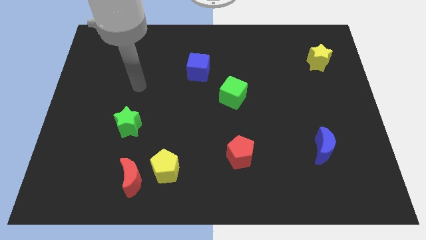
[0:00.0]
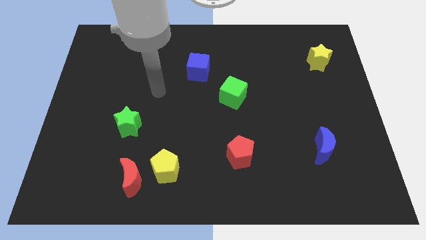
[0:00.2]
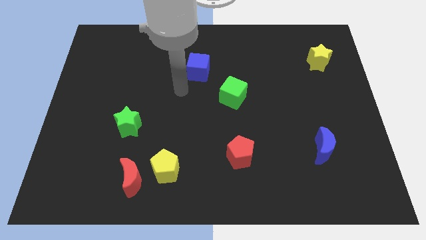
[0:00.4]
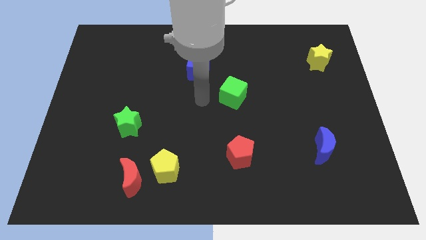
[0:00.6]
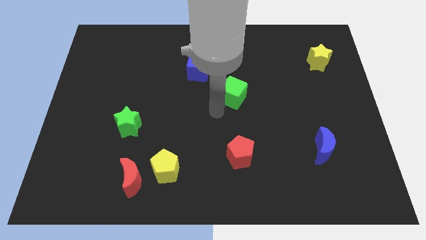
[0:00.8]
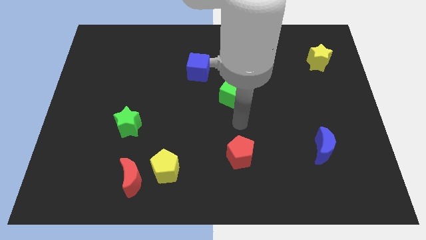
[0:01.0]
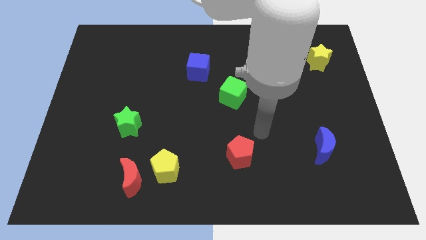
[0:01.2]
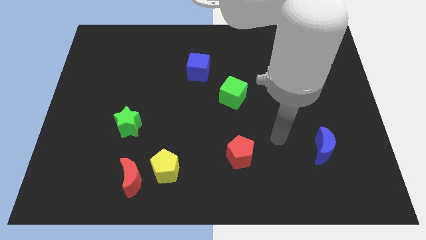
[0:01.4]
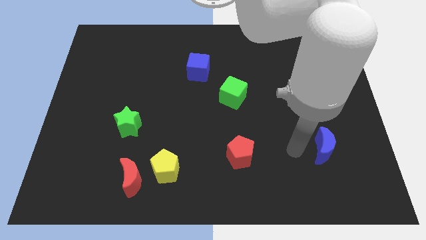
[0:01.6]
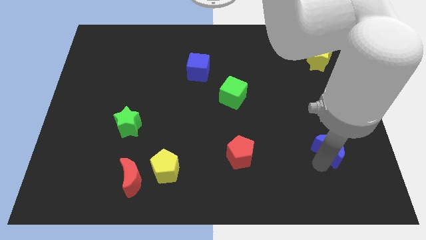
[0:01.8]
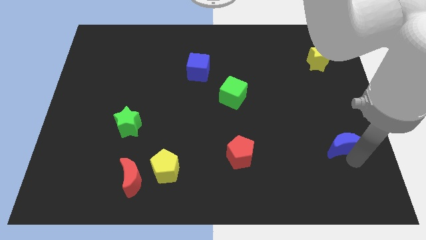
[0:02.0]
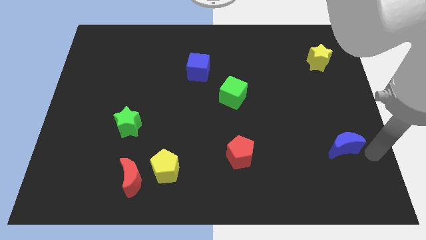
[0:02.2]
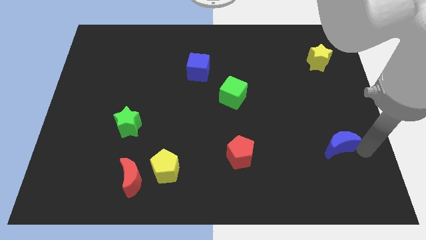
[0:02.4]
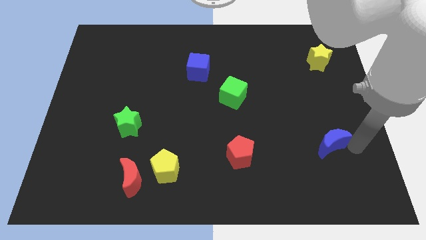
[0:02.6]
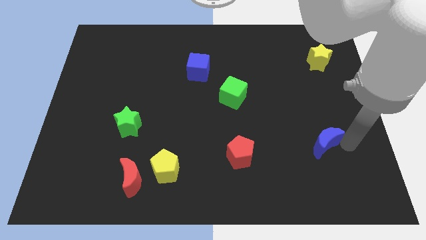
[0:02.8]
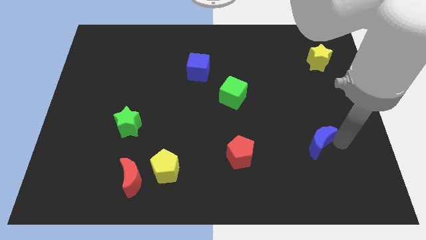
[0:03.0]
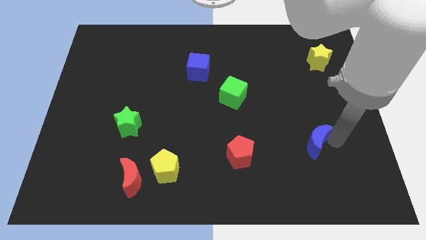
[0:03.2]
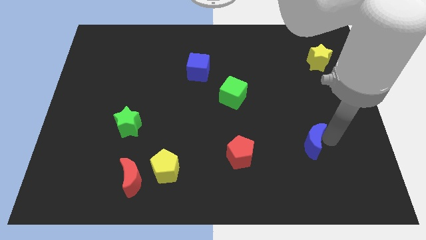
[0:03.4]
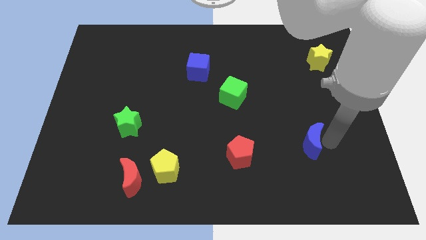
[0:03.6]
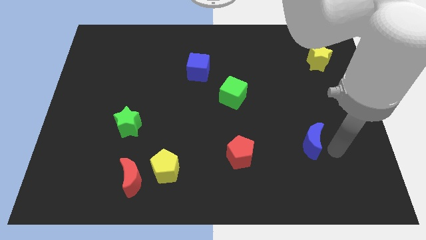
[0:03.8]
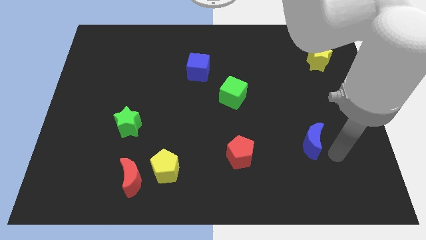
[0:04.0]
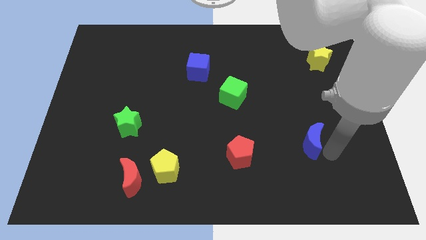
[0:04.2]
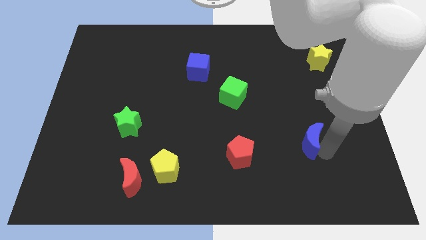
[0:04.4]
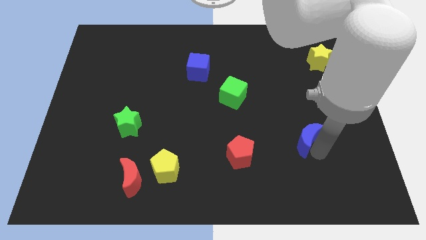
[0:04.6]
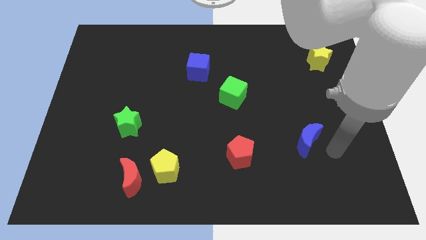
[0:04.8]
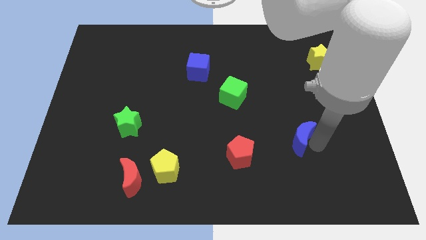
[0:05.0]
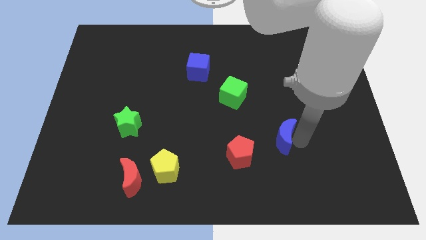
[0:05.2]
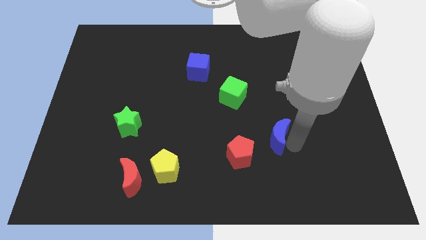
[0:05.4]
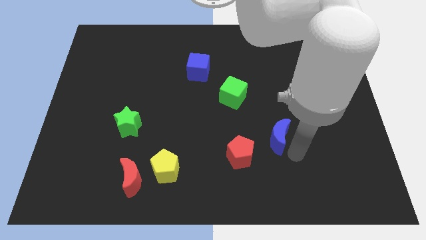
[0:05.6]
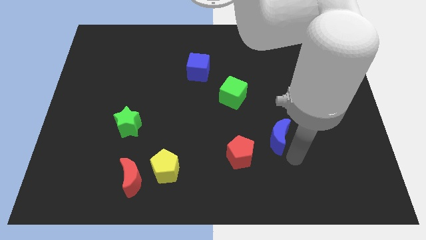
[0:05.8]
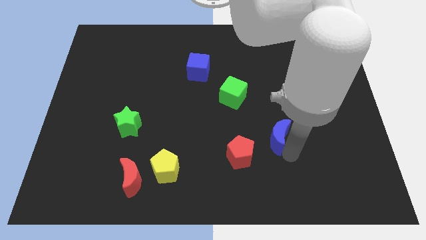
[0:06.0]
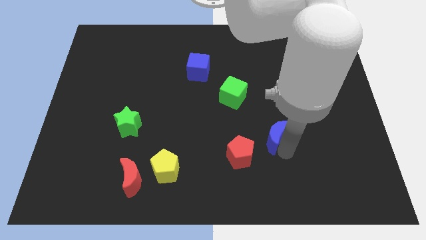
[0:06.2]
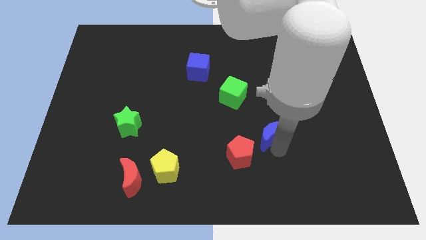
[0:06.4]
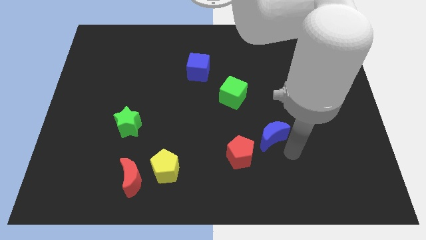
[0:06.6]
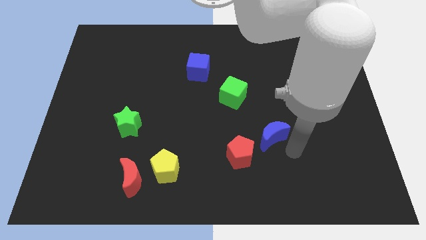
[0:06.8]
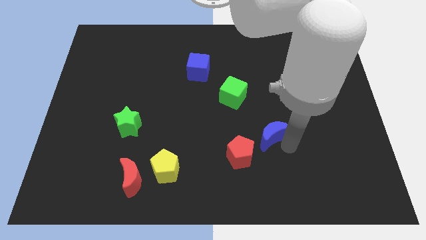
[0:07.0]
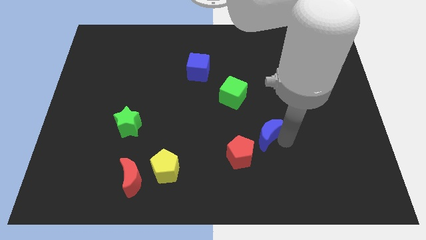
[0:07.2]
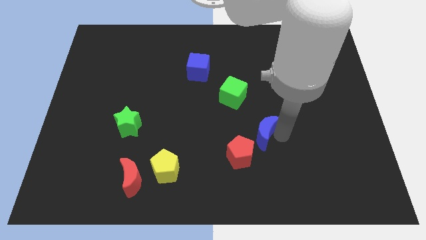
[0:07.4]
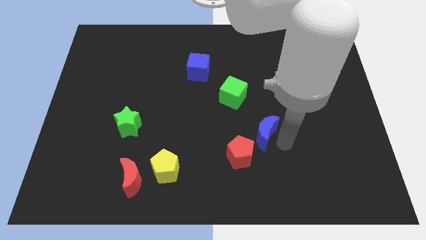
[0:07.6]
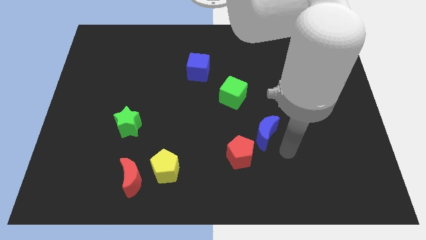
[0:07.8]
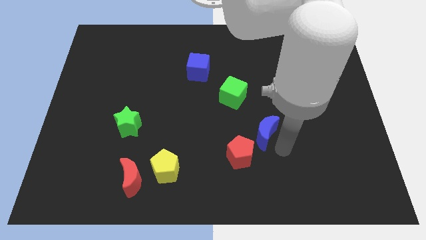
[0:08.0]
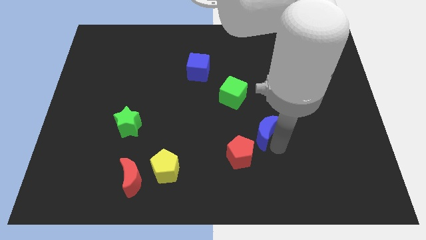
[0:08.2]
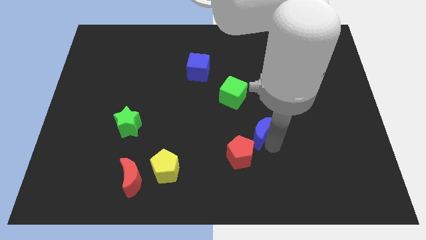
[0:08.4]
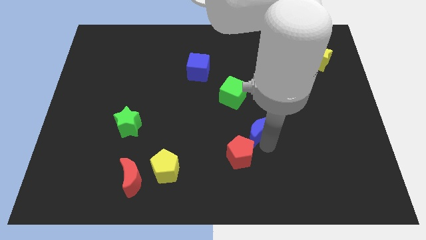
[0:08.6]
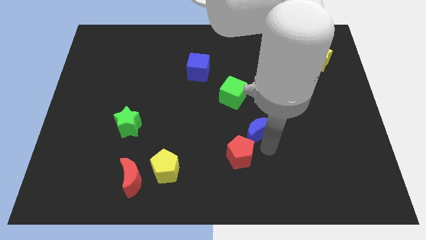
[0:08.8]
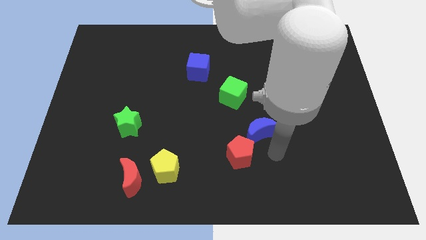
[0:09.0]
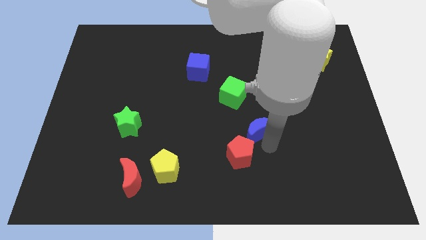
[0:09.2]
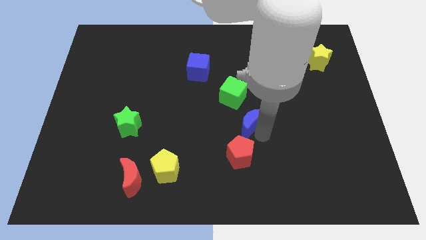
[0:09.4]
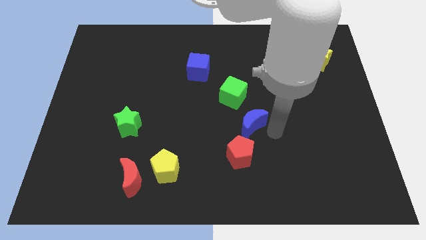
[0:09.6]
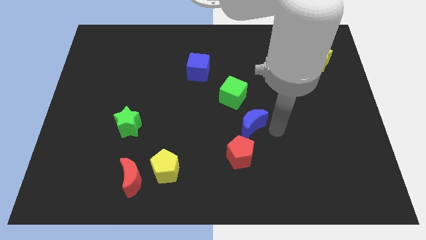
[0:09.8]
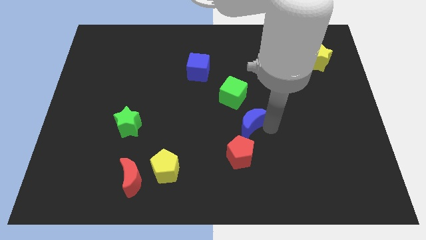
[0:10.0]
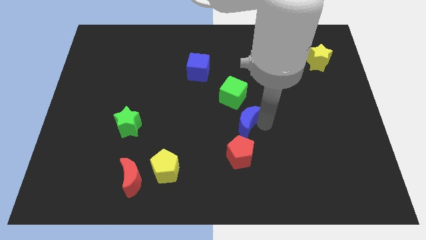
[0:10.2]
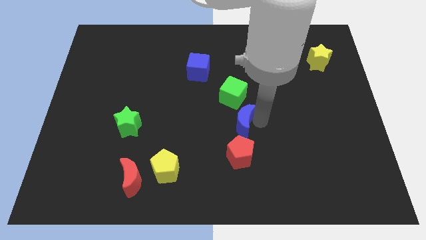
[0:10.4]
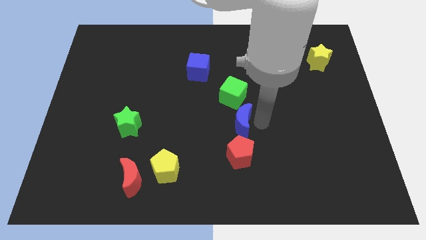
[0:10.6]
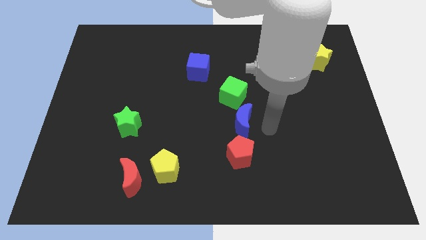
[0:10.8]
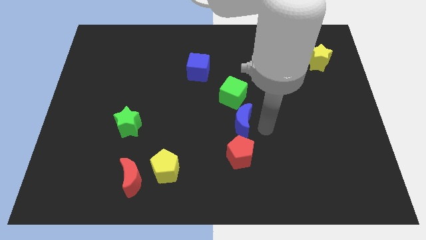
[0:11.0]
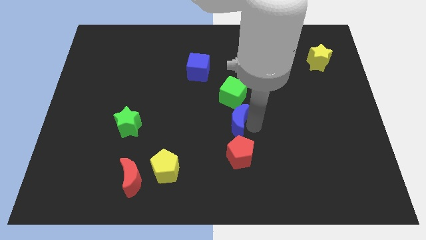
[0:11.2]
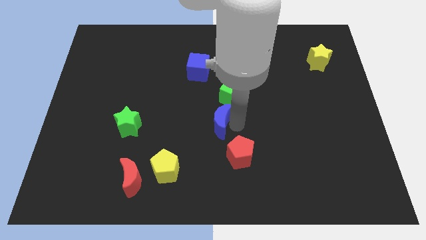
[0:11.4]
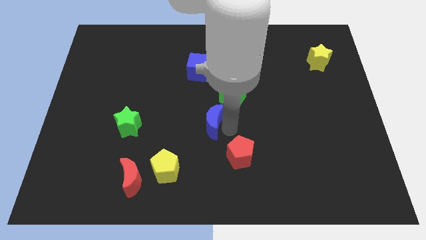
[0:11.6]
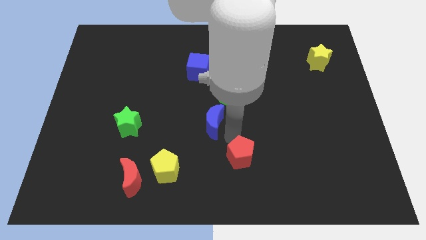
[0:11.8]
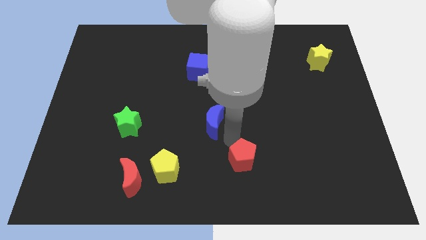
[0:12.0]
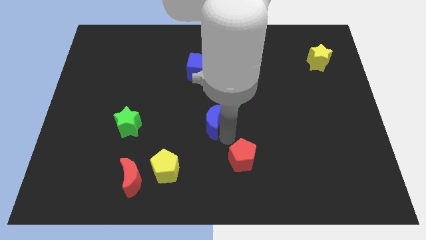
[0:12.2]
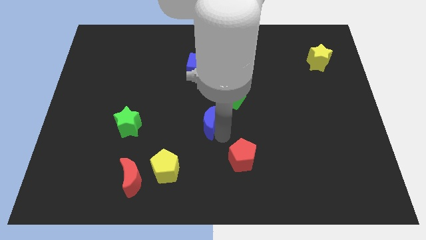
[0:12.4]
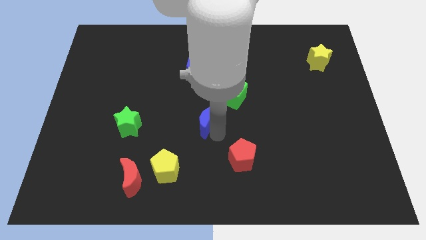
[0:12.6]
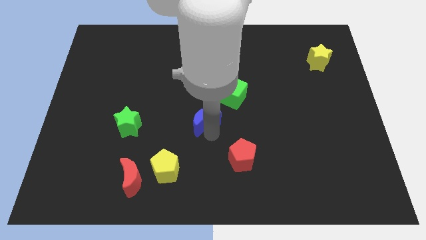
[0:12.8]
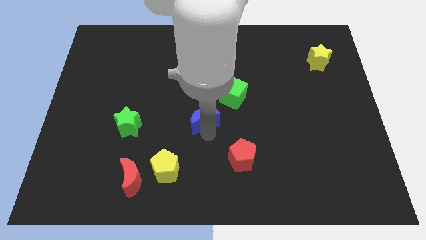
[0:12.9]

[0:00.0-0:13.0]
push the blue moon below the blue cube

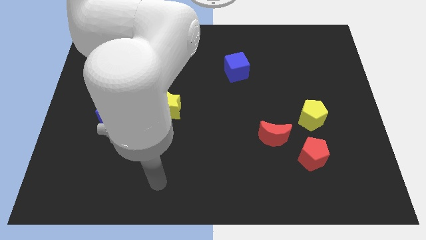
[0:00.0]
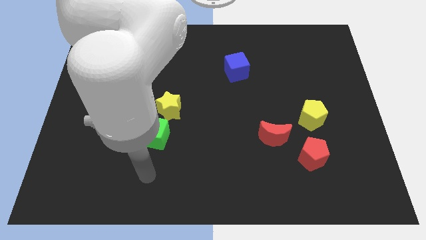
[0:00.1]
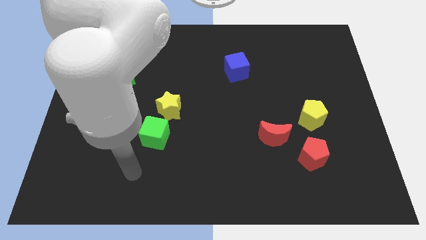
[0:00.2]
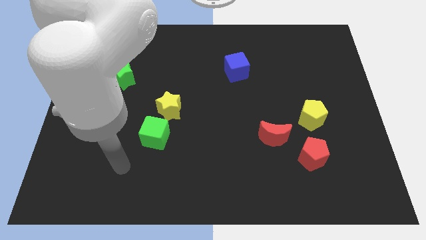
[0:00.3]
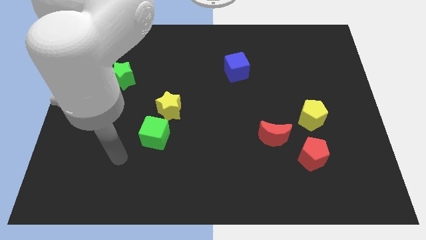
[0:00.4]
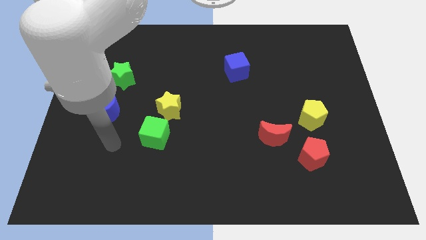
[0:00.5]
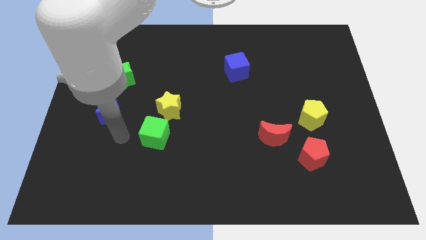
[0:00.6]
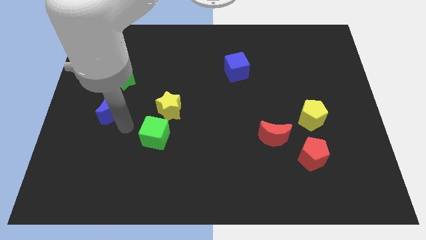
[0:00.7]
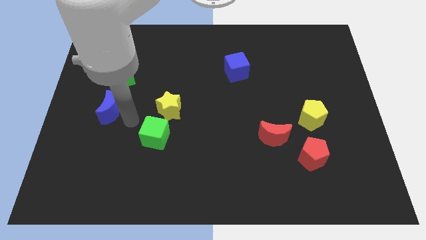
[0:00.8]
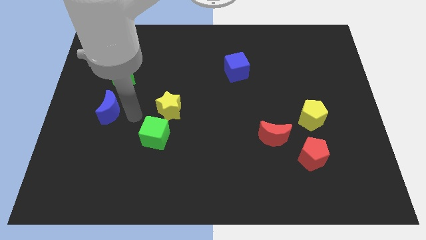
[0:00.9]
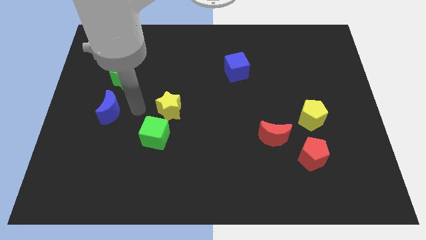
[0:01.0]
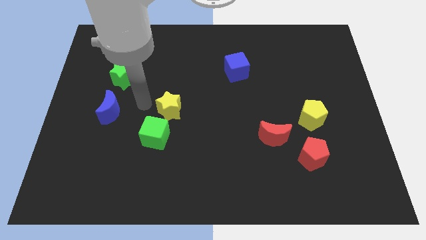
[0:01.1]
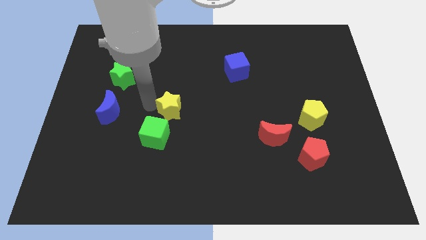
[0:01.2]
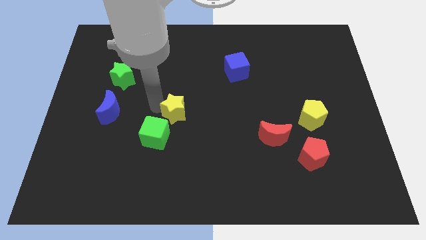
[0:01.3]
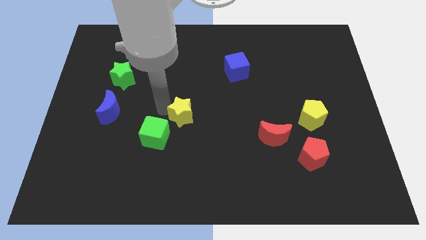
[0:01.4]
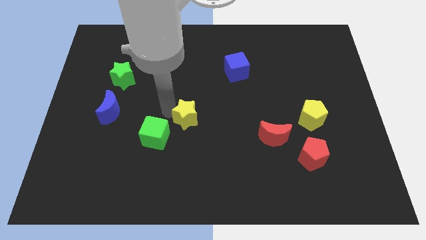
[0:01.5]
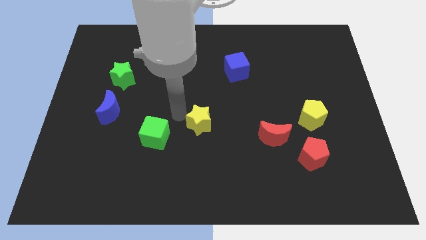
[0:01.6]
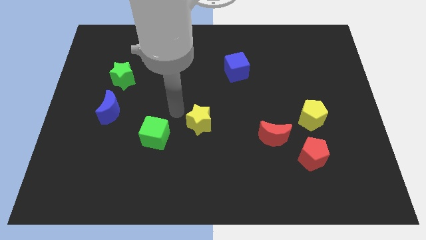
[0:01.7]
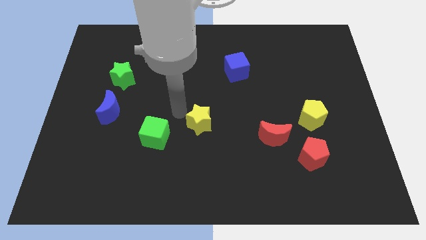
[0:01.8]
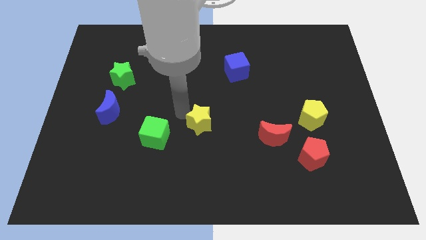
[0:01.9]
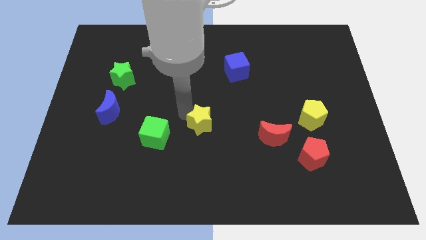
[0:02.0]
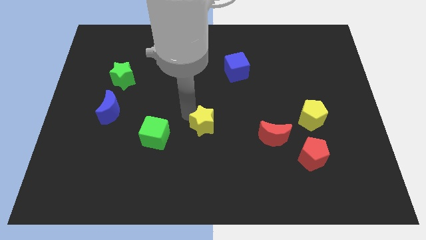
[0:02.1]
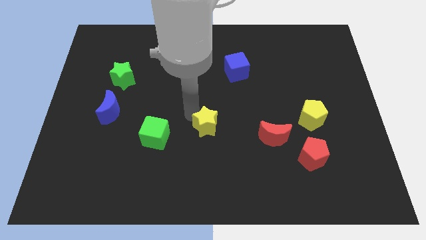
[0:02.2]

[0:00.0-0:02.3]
put the yellow star left of the red moon
